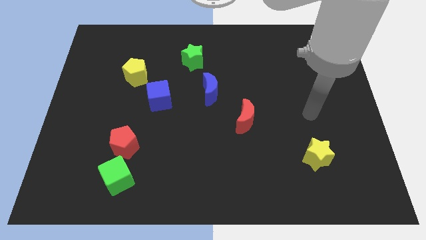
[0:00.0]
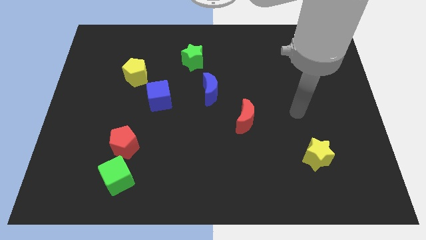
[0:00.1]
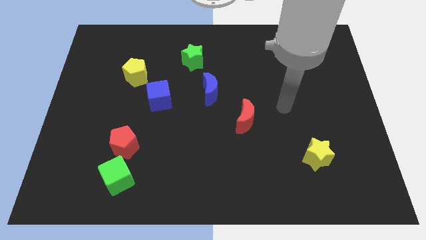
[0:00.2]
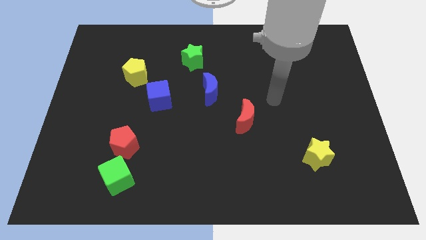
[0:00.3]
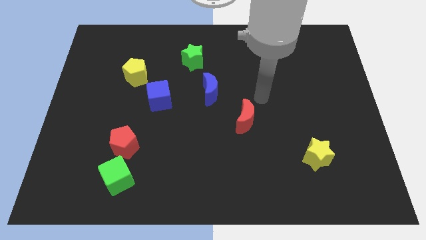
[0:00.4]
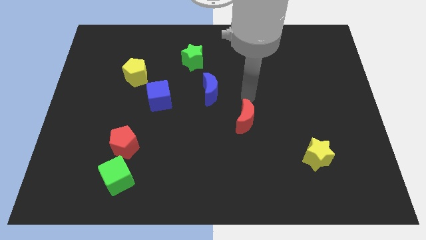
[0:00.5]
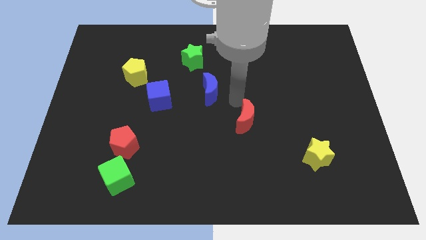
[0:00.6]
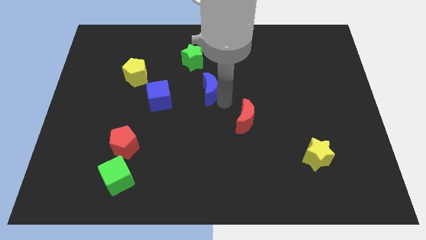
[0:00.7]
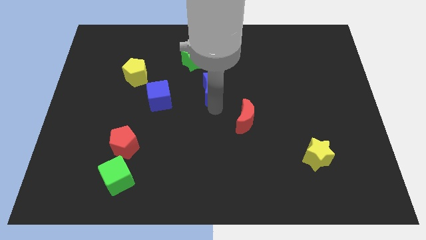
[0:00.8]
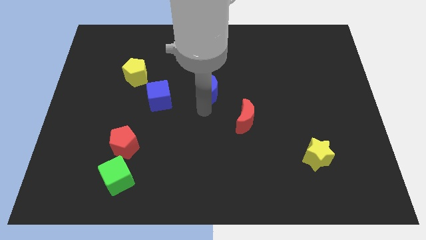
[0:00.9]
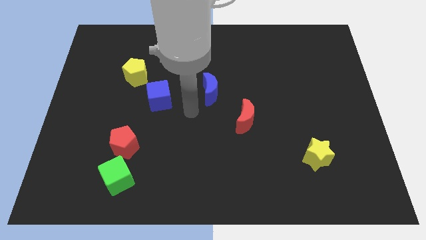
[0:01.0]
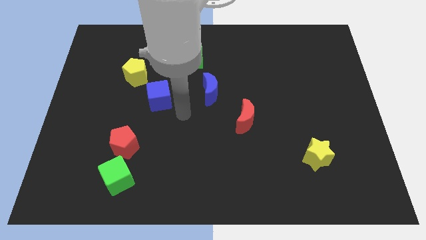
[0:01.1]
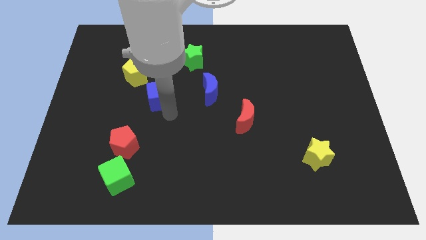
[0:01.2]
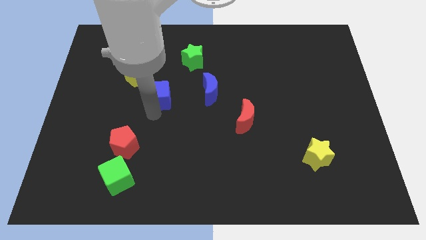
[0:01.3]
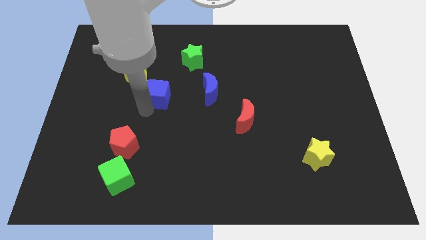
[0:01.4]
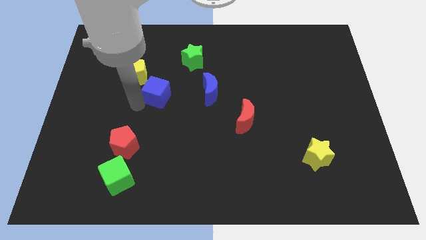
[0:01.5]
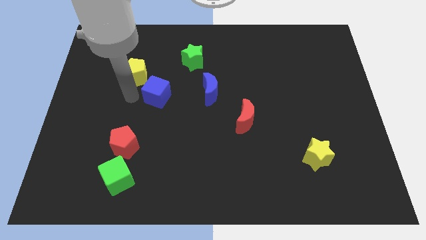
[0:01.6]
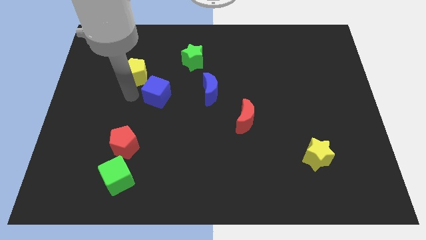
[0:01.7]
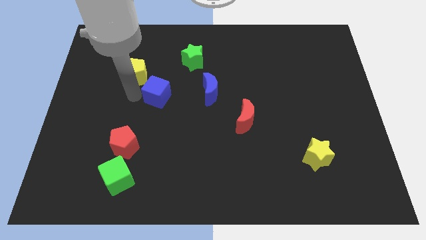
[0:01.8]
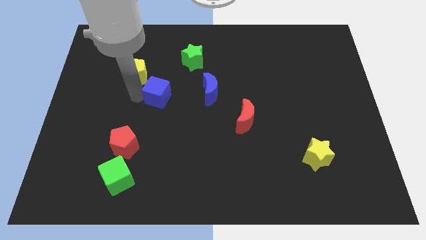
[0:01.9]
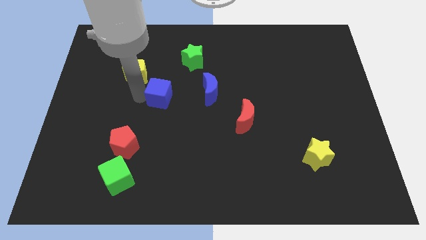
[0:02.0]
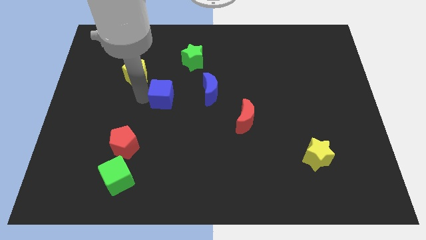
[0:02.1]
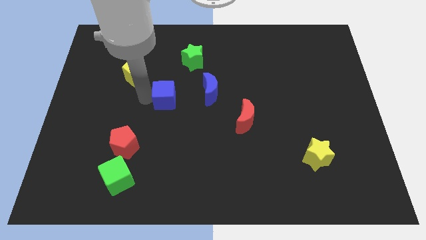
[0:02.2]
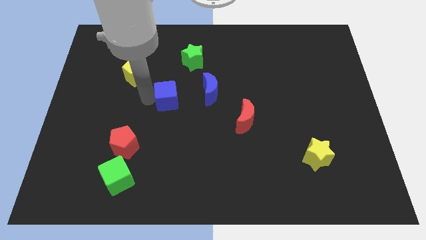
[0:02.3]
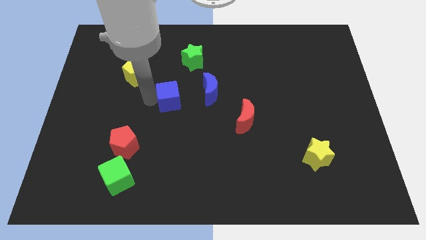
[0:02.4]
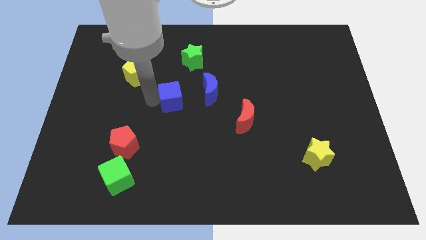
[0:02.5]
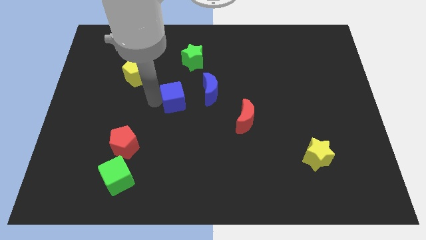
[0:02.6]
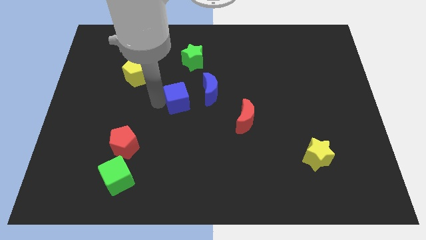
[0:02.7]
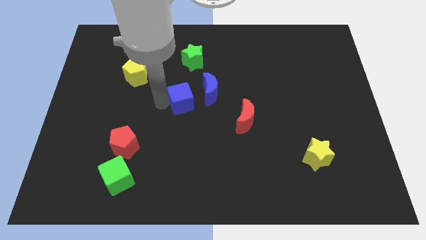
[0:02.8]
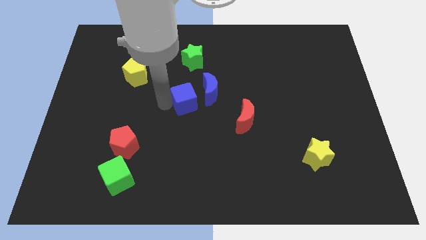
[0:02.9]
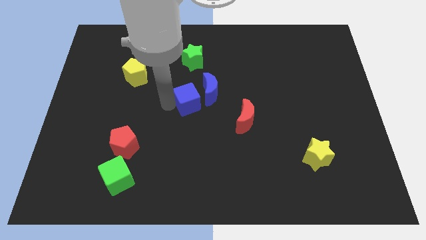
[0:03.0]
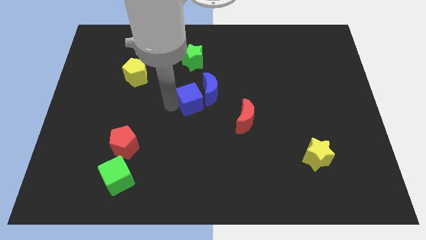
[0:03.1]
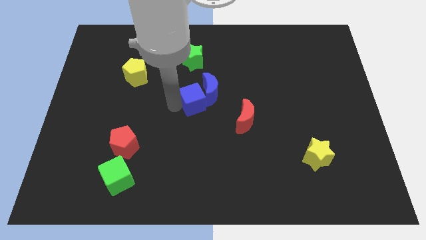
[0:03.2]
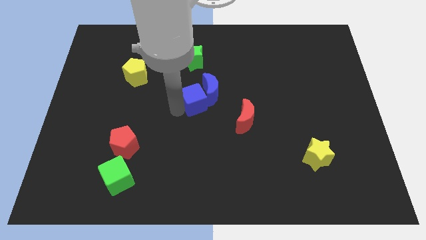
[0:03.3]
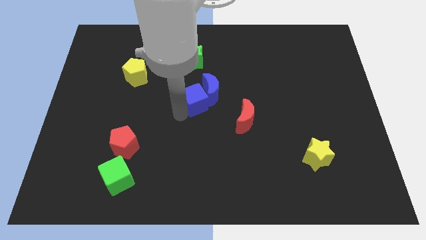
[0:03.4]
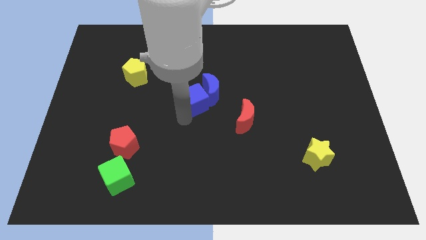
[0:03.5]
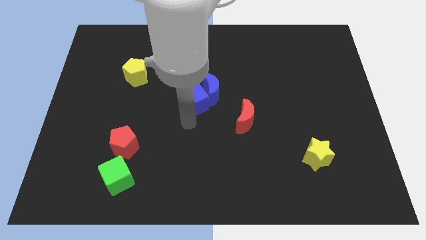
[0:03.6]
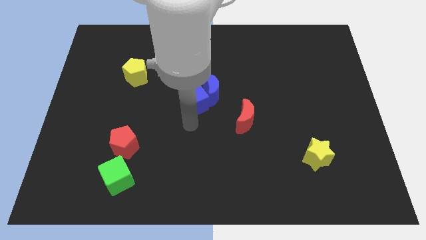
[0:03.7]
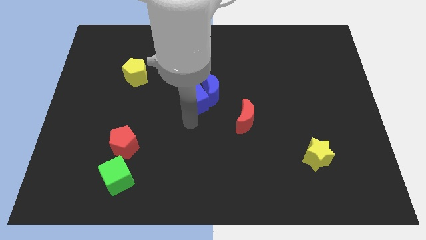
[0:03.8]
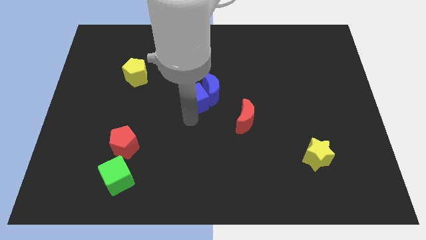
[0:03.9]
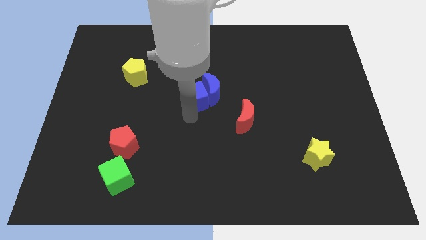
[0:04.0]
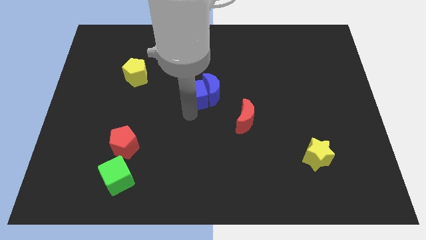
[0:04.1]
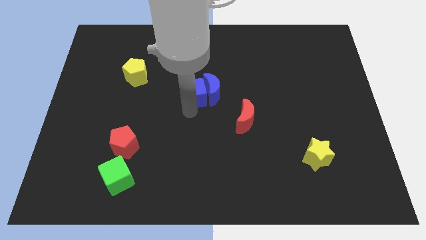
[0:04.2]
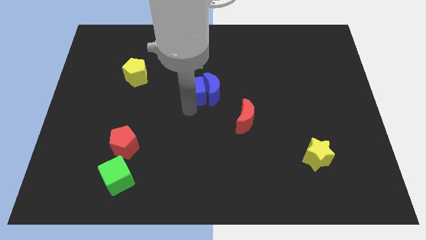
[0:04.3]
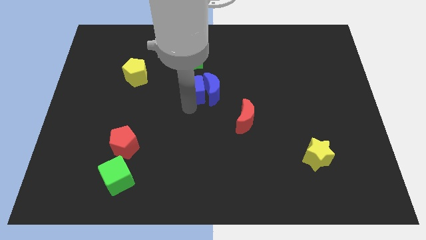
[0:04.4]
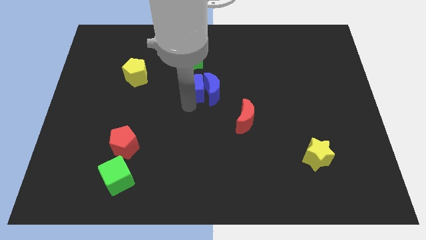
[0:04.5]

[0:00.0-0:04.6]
push the blue cube somewhat diagonally up and right

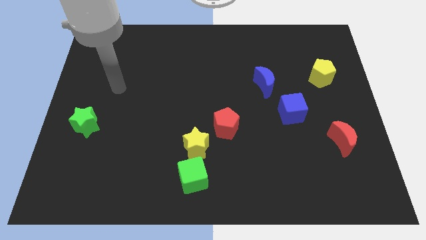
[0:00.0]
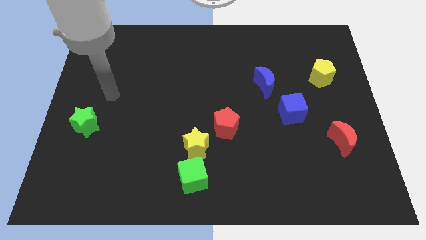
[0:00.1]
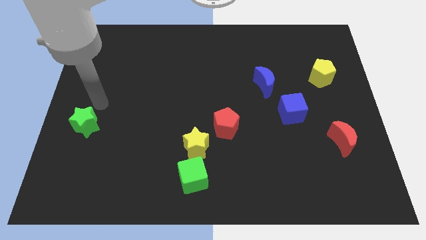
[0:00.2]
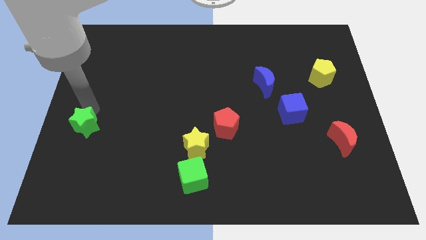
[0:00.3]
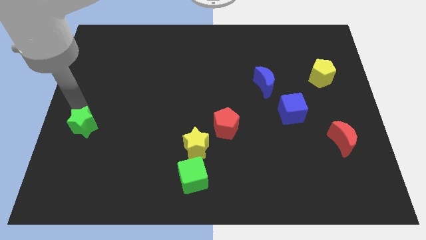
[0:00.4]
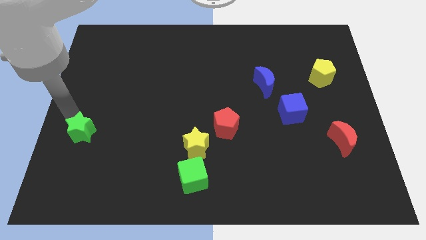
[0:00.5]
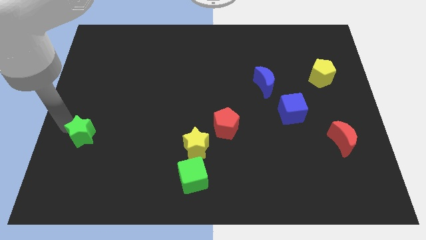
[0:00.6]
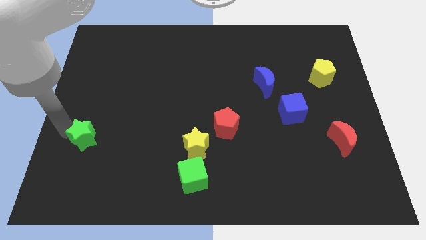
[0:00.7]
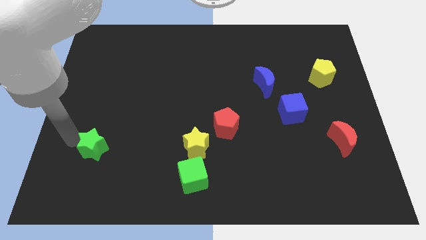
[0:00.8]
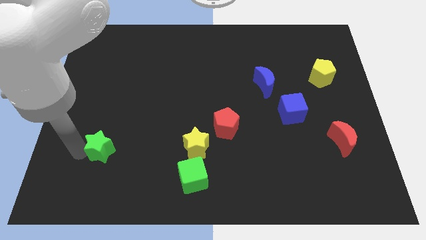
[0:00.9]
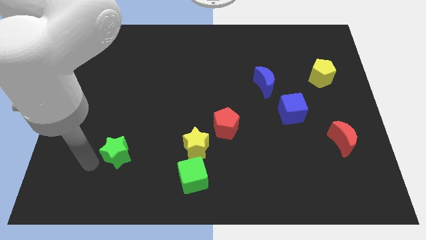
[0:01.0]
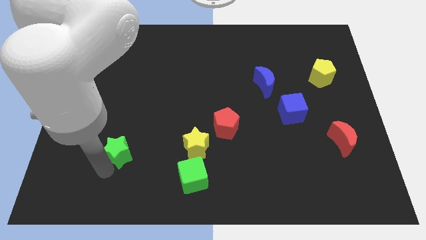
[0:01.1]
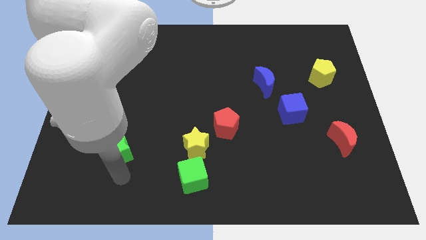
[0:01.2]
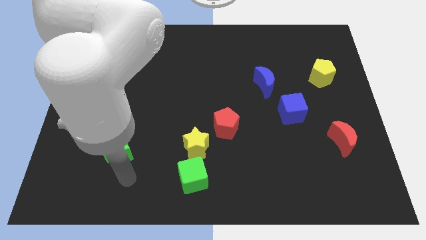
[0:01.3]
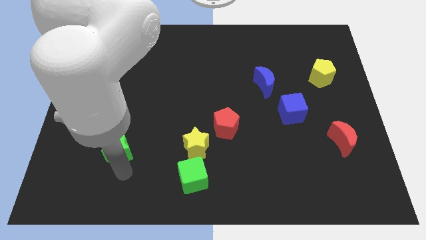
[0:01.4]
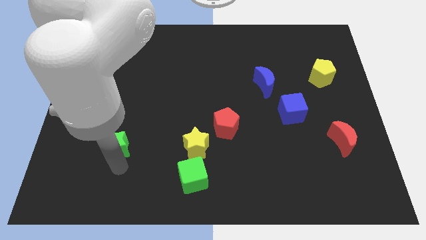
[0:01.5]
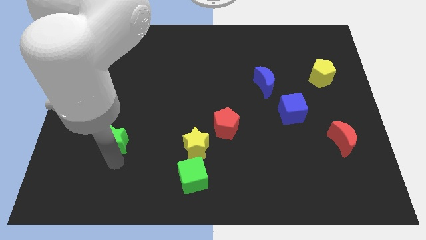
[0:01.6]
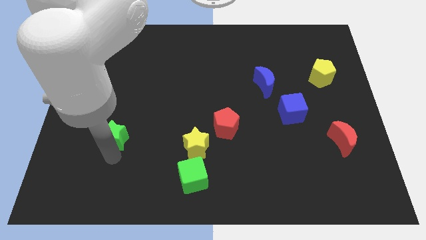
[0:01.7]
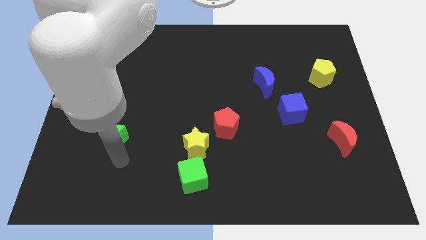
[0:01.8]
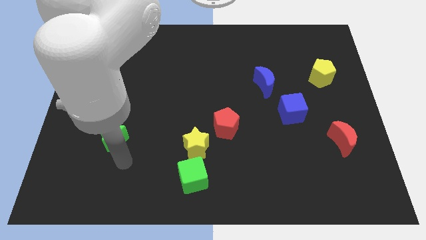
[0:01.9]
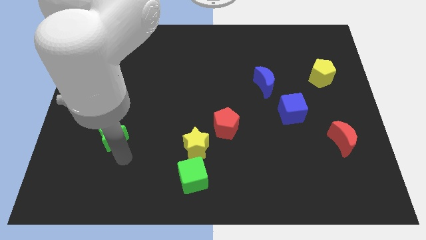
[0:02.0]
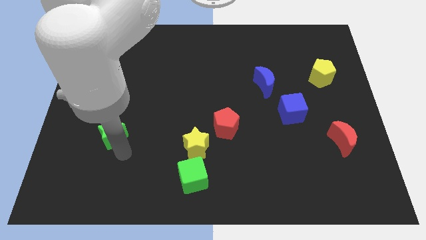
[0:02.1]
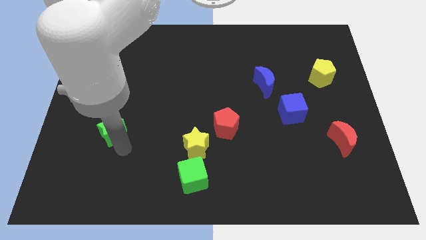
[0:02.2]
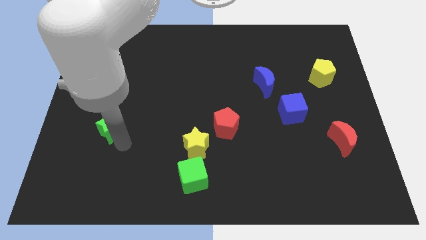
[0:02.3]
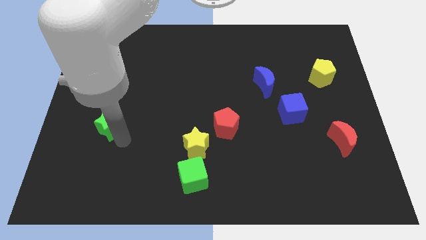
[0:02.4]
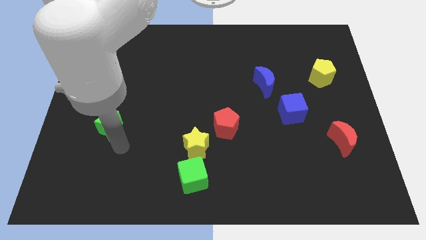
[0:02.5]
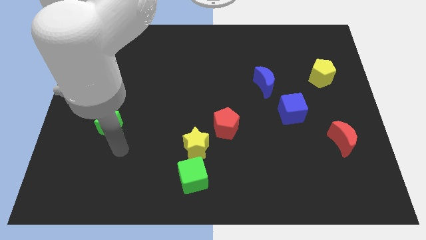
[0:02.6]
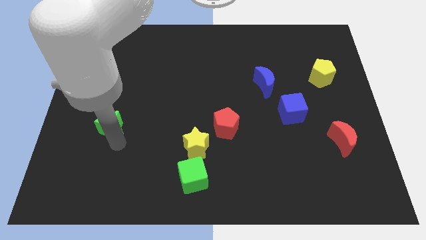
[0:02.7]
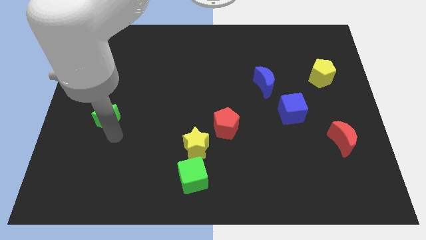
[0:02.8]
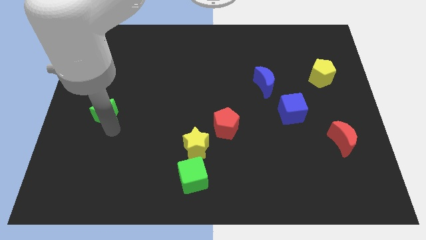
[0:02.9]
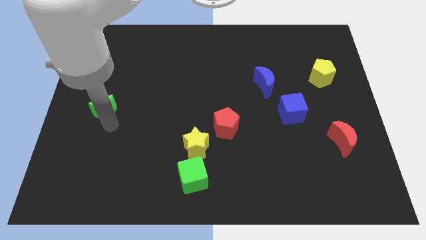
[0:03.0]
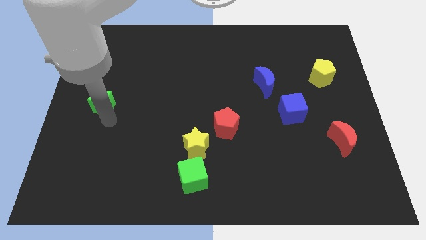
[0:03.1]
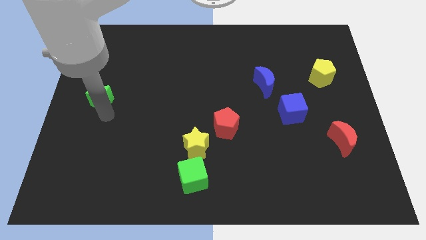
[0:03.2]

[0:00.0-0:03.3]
slide the green star up somewhat
